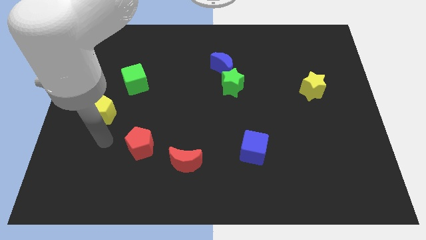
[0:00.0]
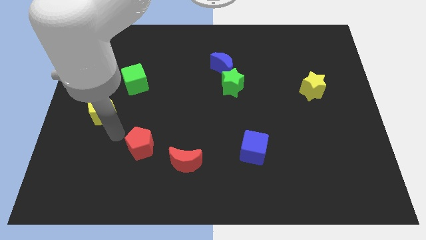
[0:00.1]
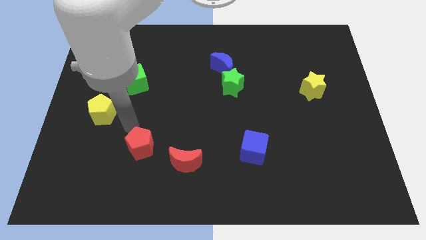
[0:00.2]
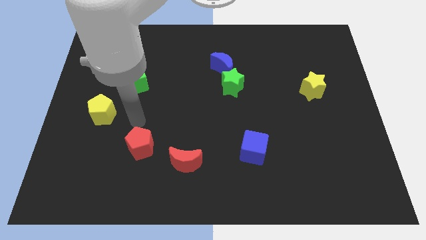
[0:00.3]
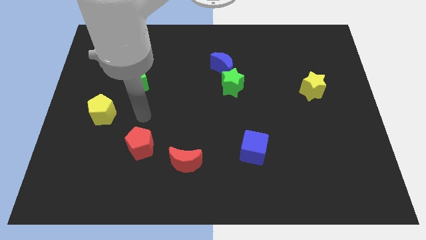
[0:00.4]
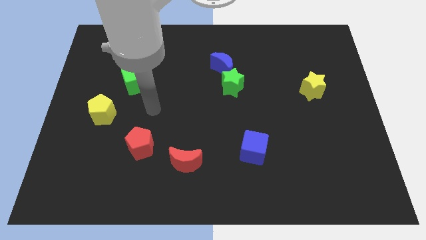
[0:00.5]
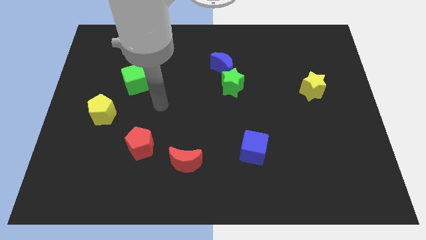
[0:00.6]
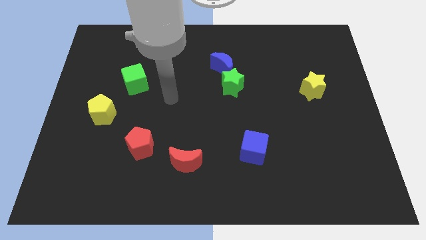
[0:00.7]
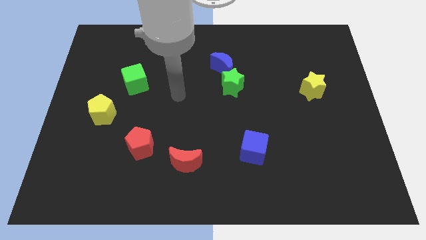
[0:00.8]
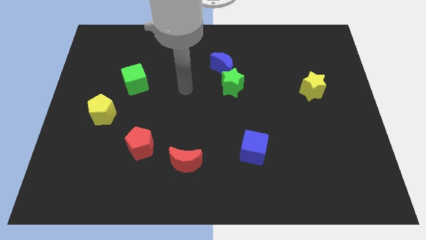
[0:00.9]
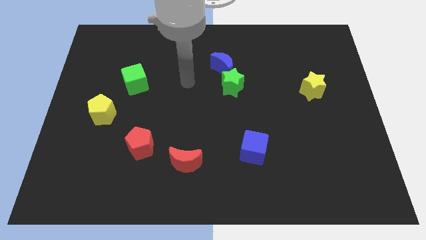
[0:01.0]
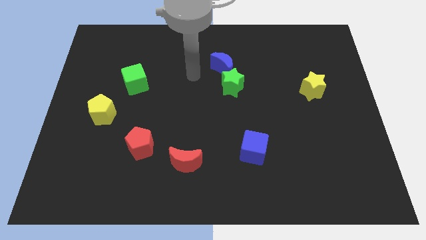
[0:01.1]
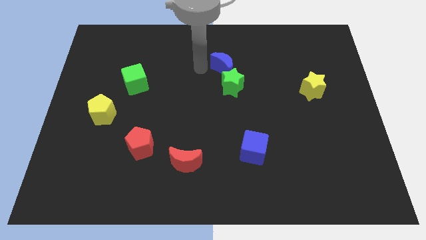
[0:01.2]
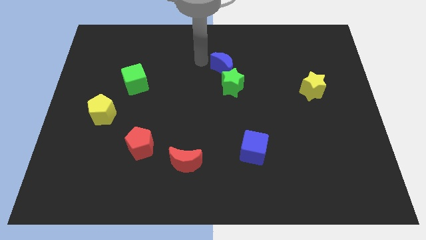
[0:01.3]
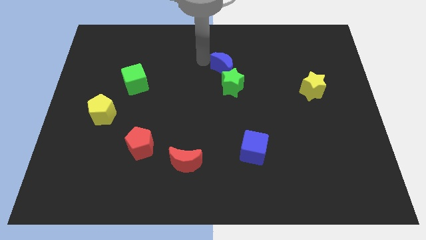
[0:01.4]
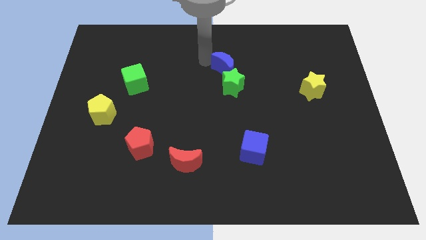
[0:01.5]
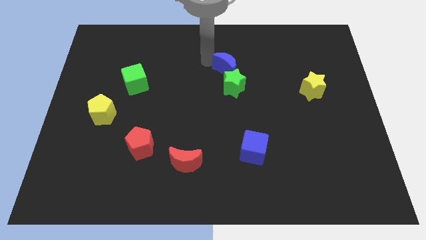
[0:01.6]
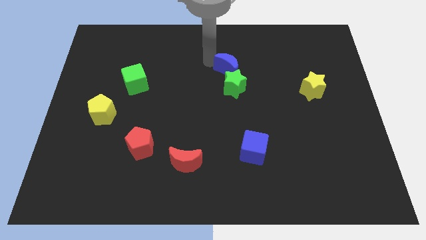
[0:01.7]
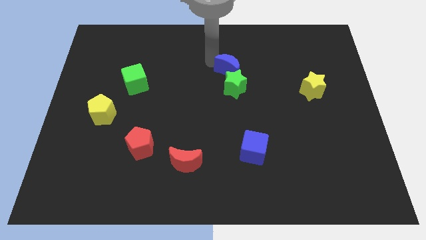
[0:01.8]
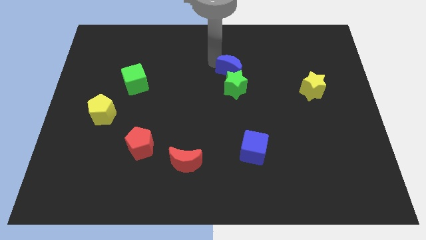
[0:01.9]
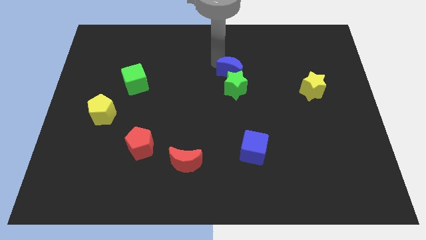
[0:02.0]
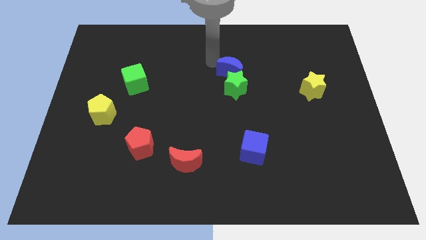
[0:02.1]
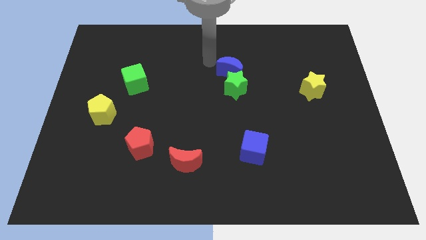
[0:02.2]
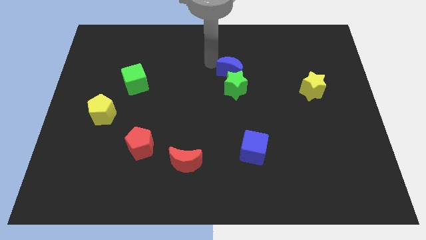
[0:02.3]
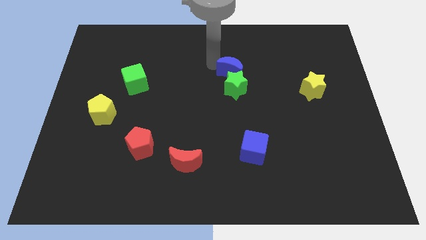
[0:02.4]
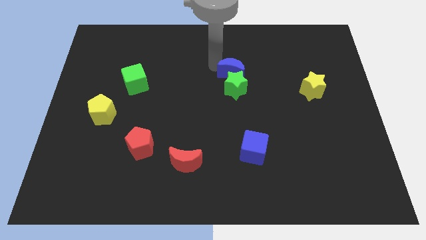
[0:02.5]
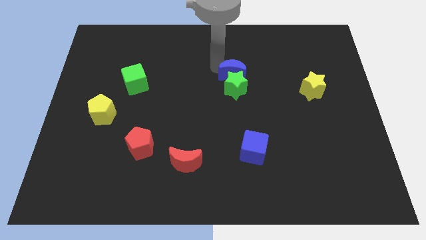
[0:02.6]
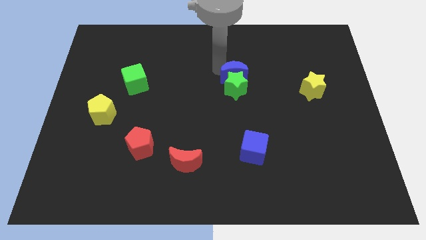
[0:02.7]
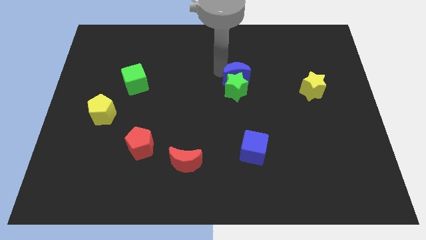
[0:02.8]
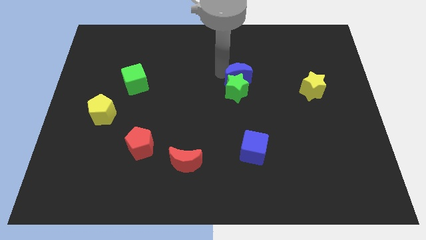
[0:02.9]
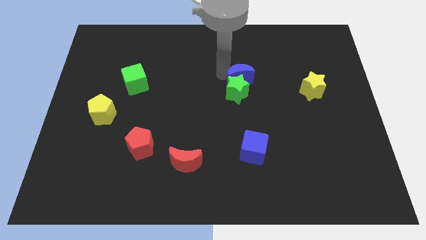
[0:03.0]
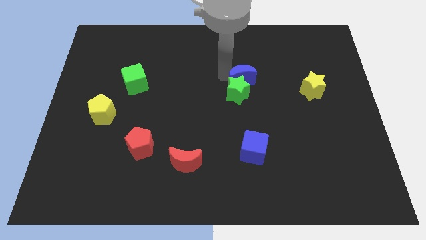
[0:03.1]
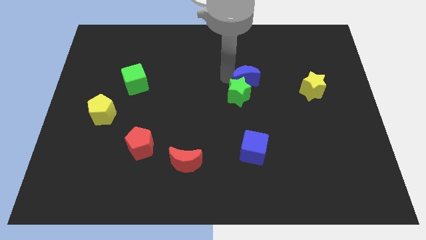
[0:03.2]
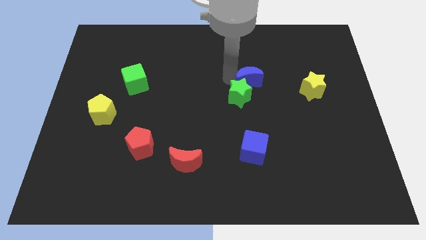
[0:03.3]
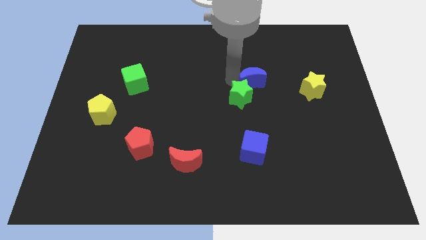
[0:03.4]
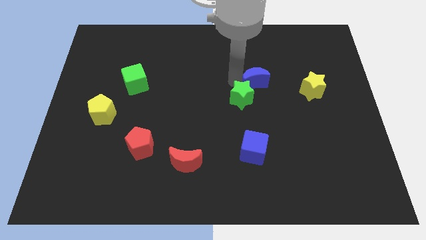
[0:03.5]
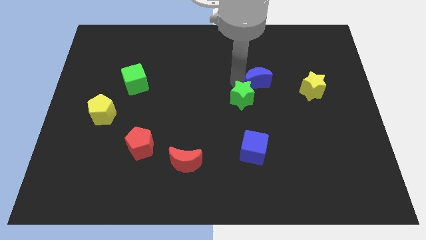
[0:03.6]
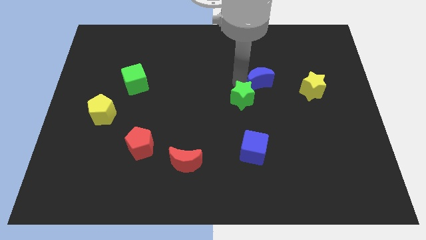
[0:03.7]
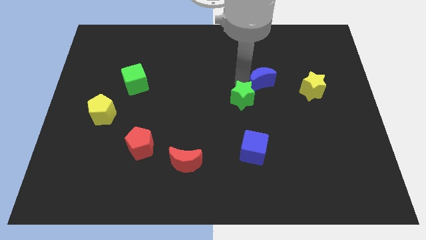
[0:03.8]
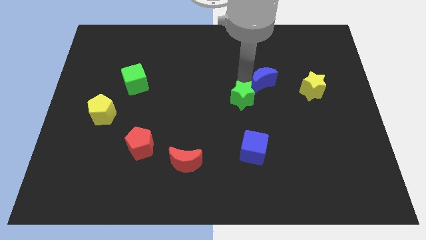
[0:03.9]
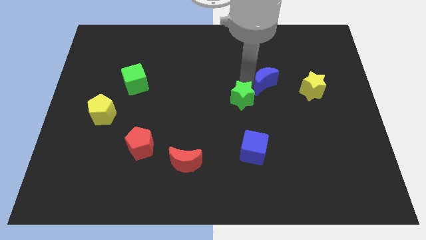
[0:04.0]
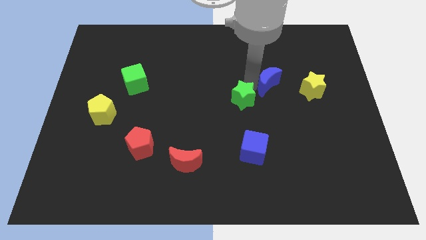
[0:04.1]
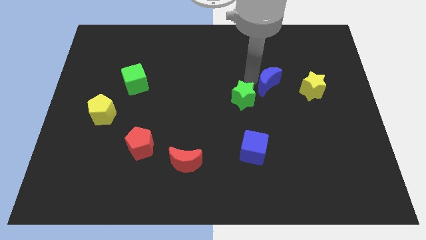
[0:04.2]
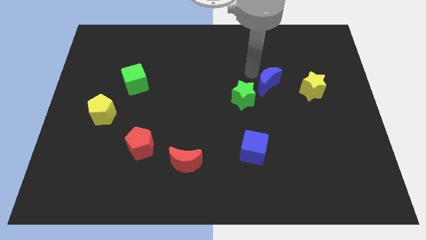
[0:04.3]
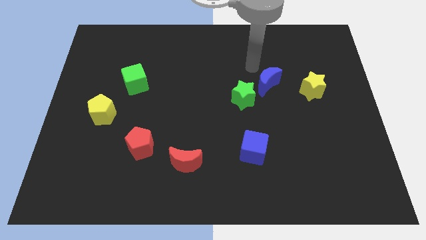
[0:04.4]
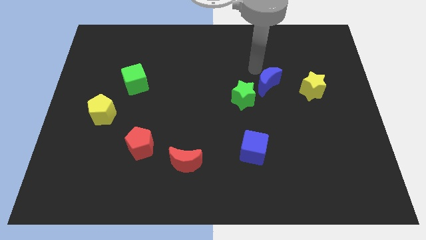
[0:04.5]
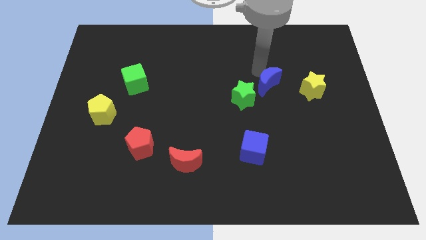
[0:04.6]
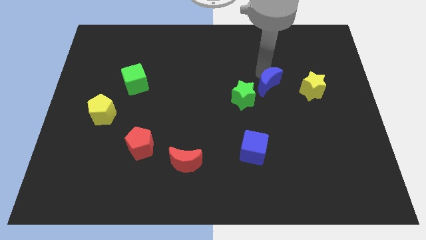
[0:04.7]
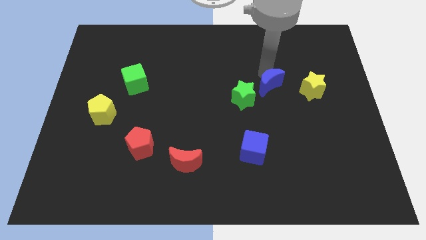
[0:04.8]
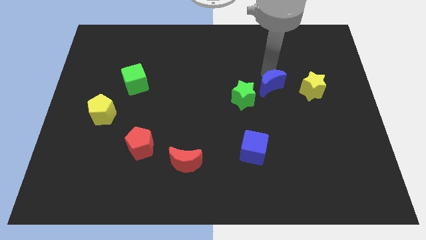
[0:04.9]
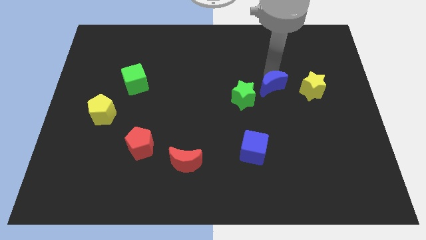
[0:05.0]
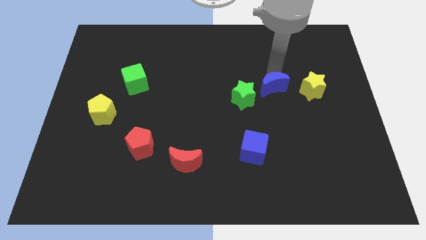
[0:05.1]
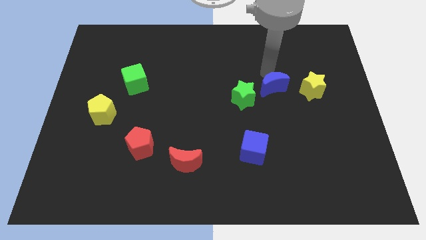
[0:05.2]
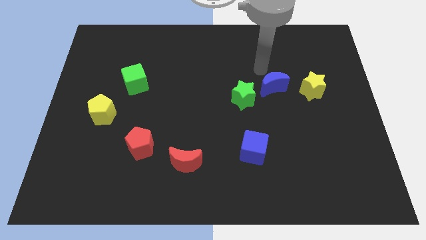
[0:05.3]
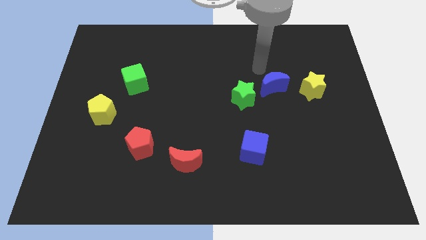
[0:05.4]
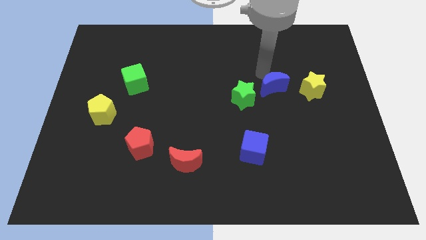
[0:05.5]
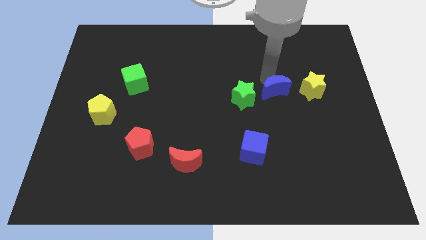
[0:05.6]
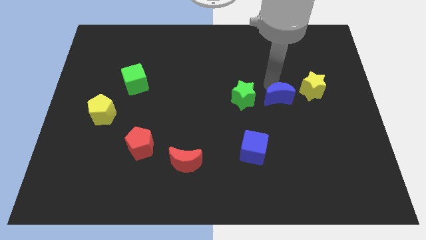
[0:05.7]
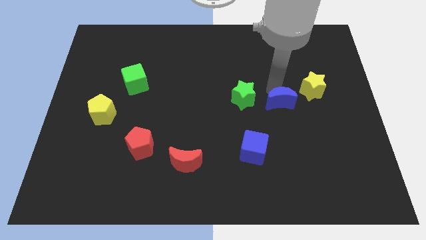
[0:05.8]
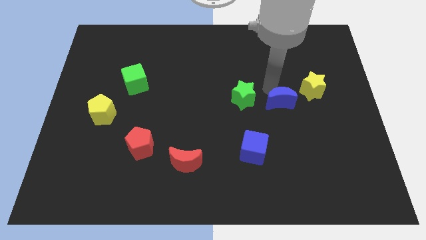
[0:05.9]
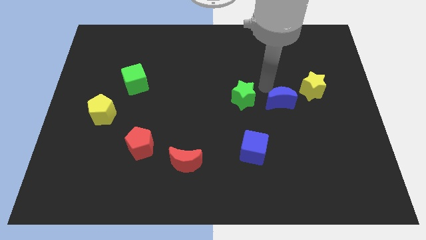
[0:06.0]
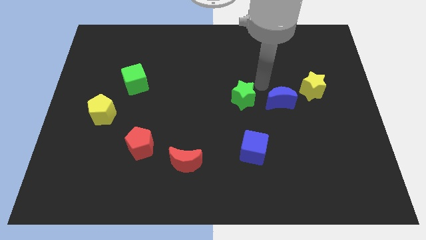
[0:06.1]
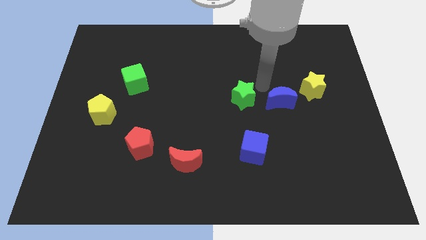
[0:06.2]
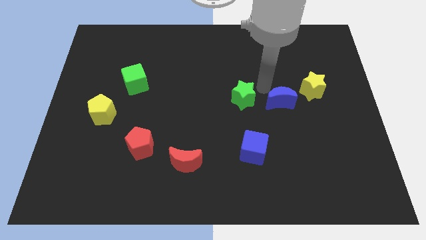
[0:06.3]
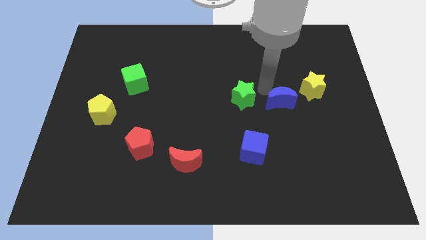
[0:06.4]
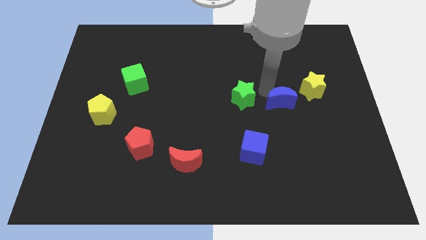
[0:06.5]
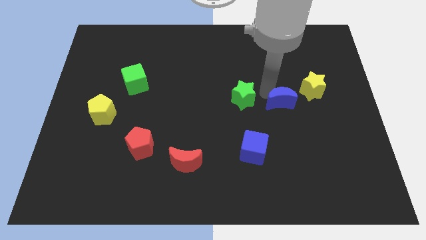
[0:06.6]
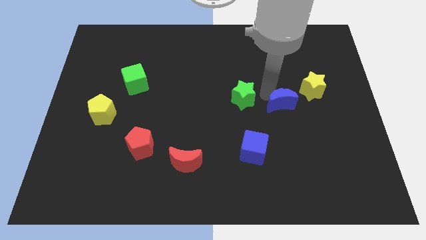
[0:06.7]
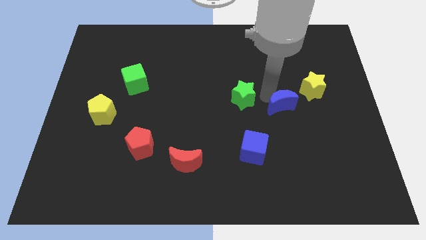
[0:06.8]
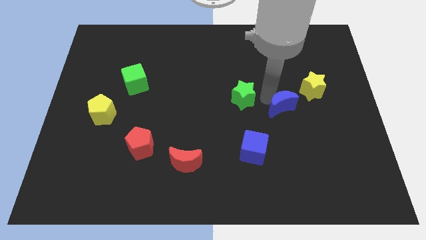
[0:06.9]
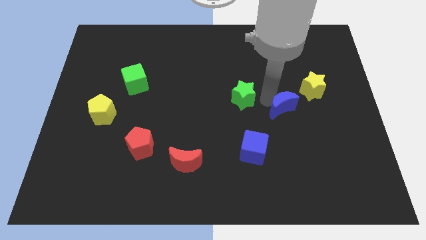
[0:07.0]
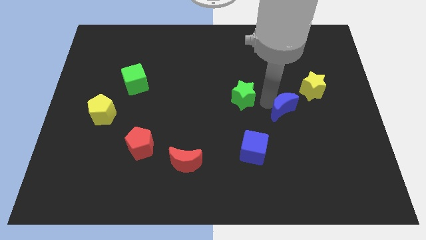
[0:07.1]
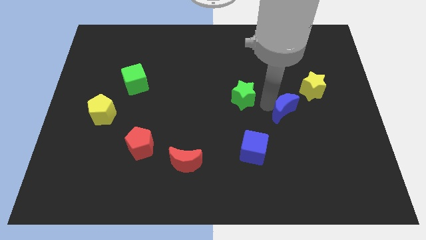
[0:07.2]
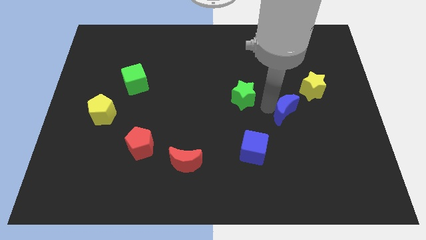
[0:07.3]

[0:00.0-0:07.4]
move the blue moon diagonally down and to the right

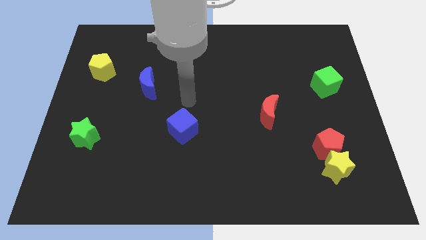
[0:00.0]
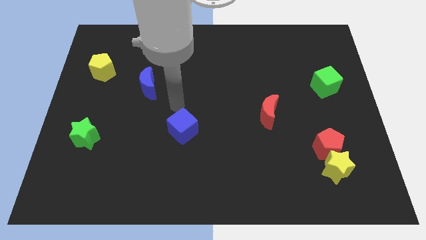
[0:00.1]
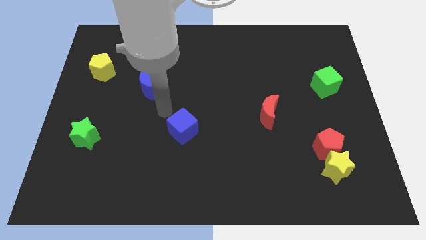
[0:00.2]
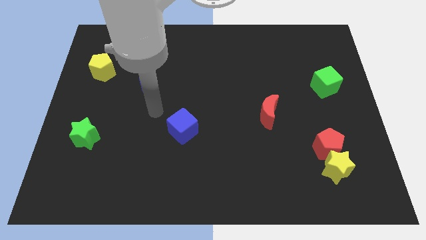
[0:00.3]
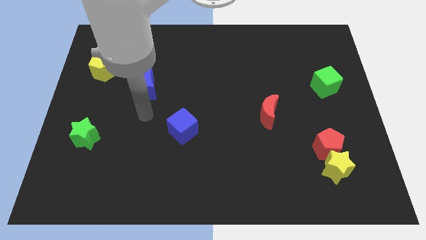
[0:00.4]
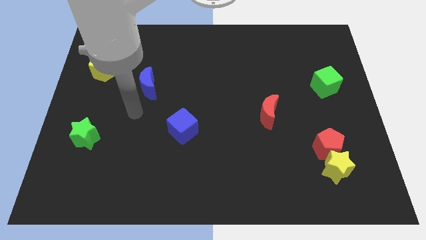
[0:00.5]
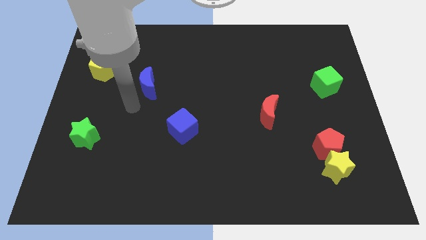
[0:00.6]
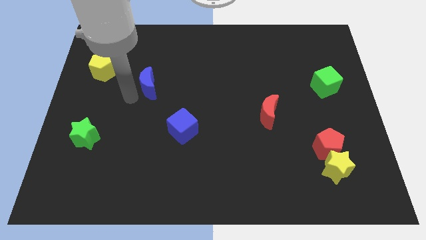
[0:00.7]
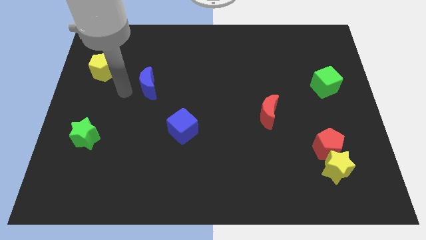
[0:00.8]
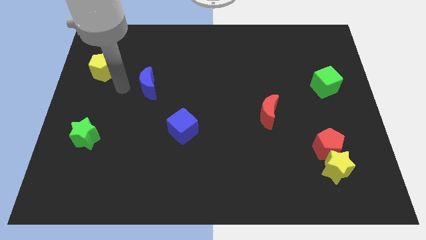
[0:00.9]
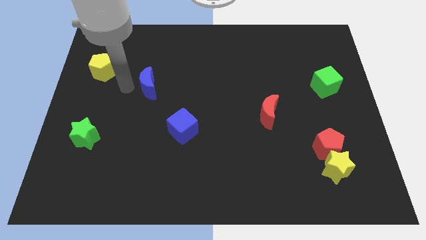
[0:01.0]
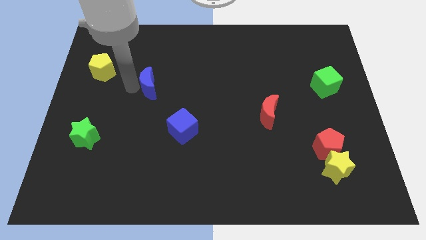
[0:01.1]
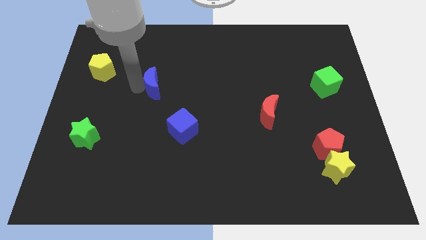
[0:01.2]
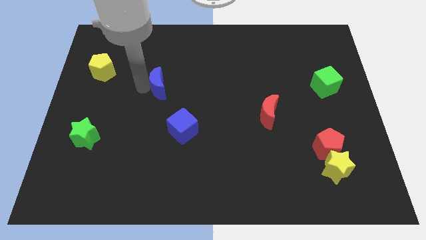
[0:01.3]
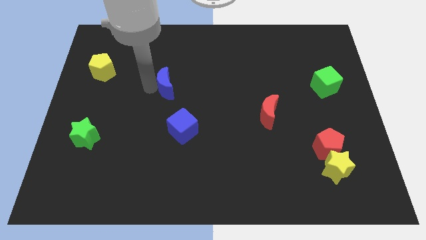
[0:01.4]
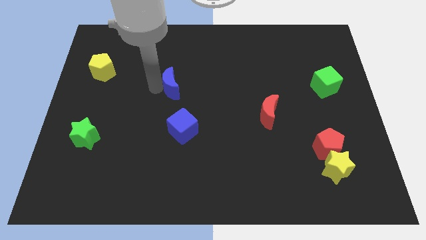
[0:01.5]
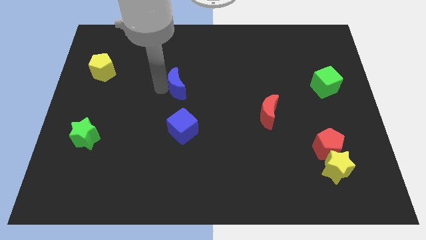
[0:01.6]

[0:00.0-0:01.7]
push the blue moon a bit right
